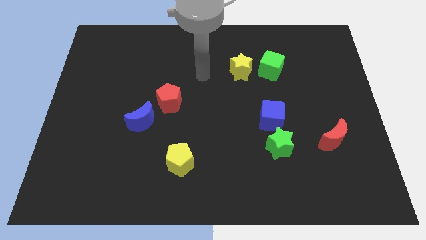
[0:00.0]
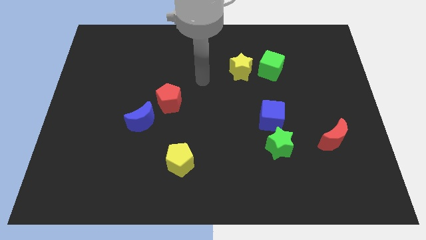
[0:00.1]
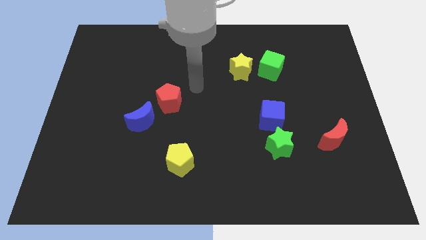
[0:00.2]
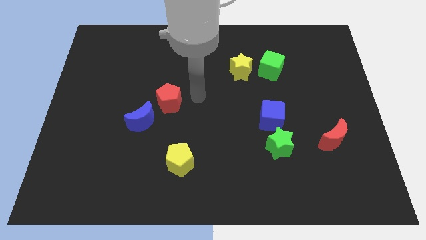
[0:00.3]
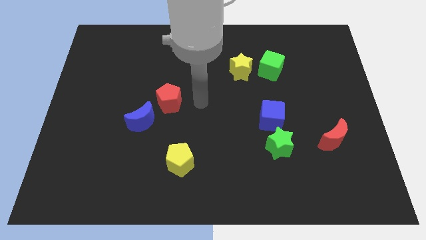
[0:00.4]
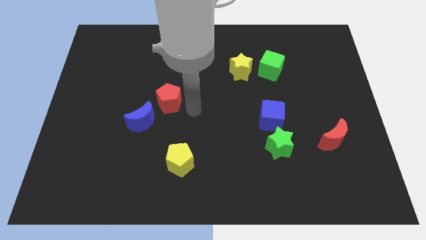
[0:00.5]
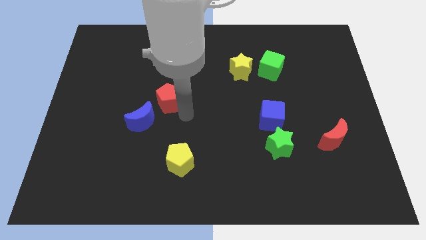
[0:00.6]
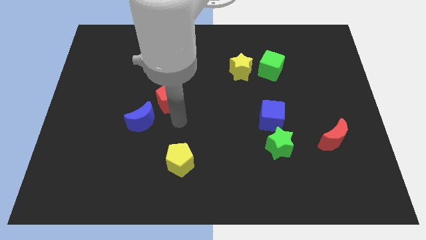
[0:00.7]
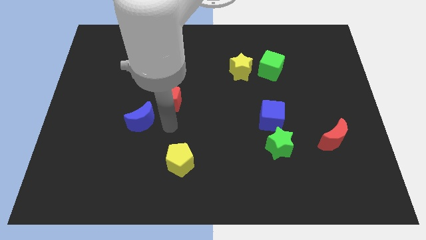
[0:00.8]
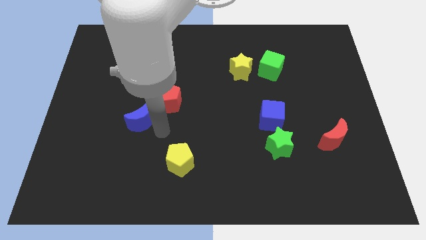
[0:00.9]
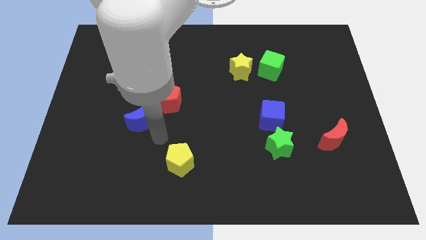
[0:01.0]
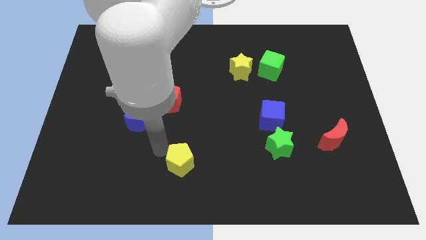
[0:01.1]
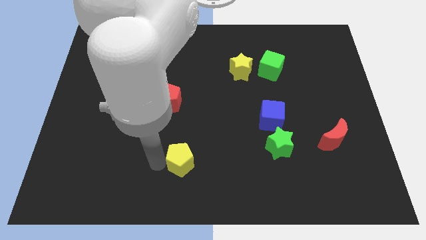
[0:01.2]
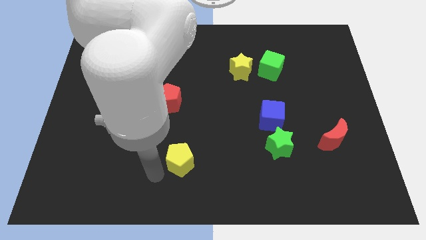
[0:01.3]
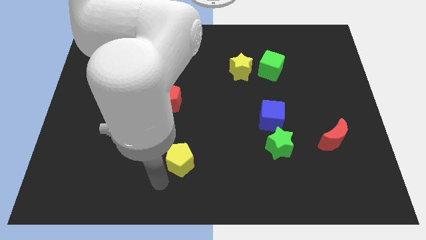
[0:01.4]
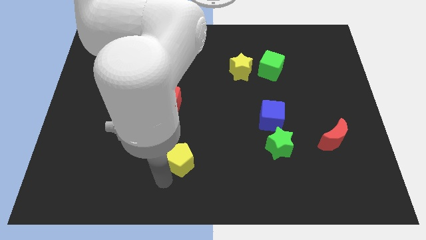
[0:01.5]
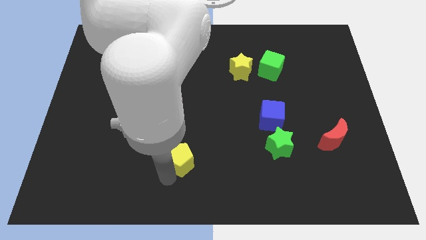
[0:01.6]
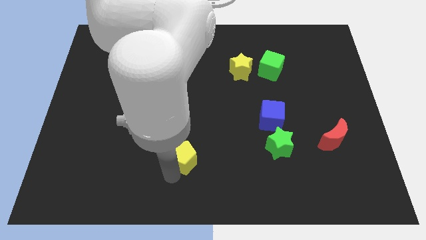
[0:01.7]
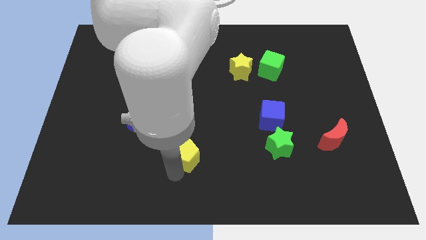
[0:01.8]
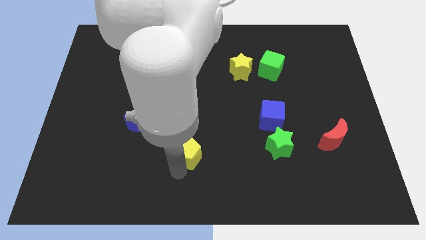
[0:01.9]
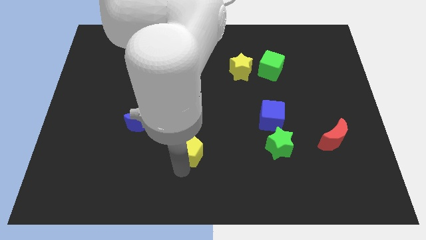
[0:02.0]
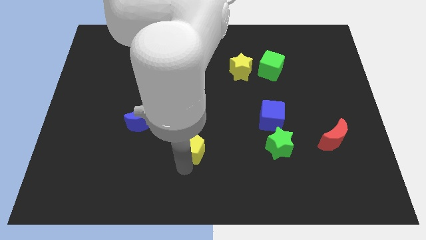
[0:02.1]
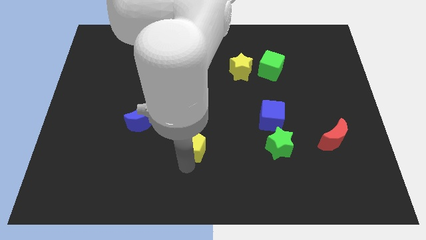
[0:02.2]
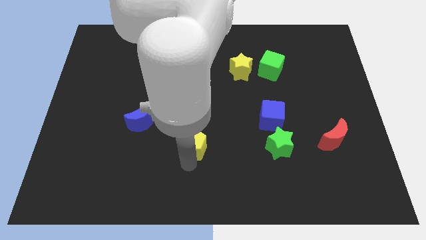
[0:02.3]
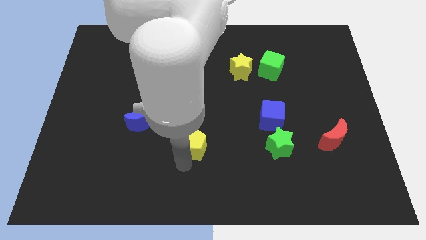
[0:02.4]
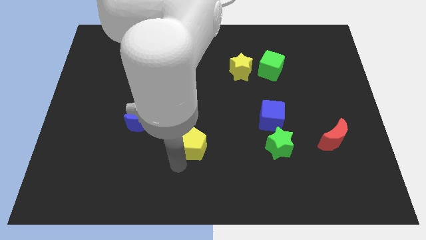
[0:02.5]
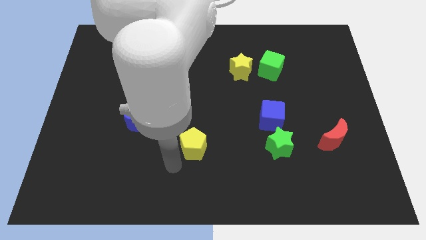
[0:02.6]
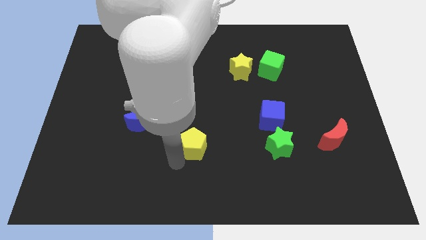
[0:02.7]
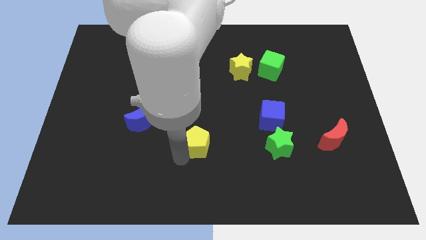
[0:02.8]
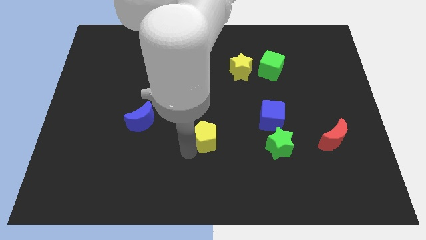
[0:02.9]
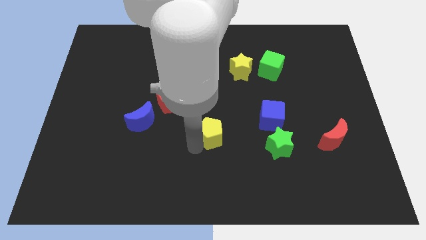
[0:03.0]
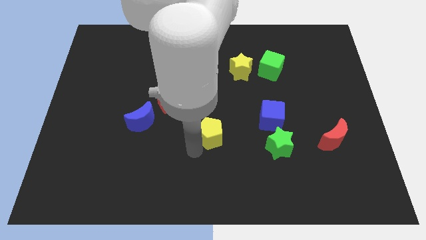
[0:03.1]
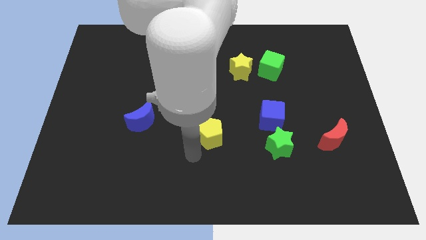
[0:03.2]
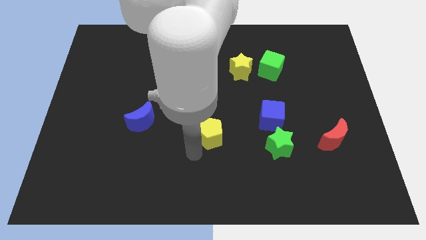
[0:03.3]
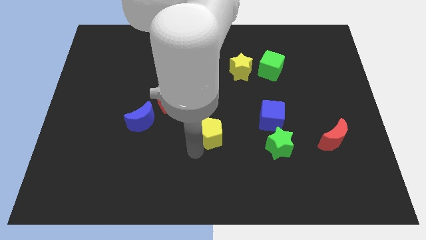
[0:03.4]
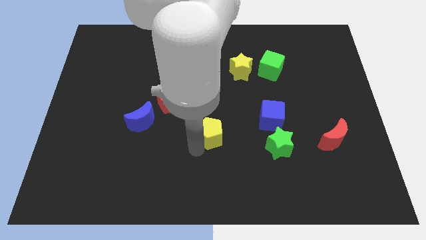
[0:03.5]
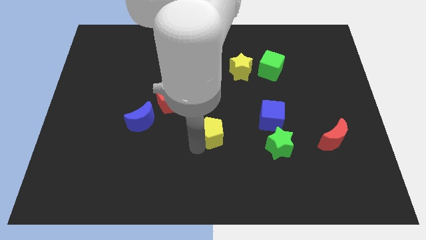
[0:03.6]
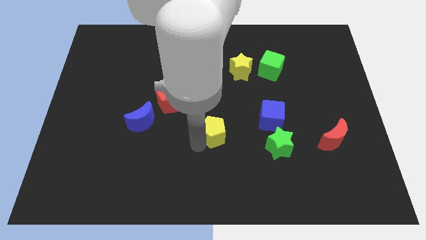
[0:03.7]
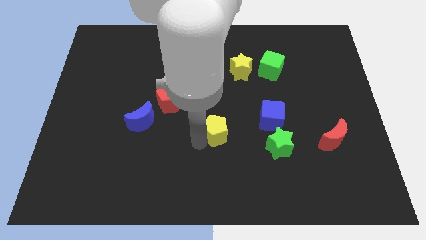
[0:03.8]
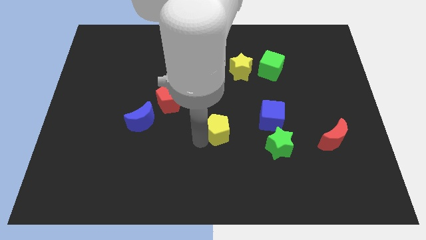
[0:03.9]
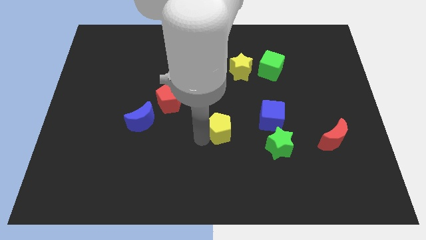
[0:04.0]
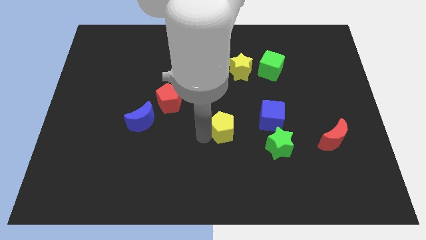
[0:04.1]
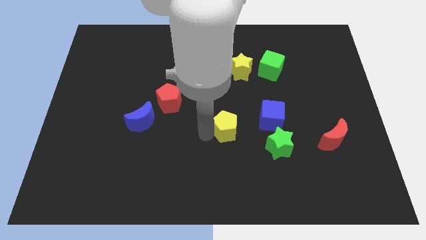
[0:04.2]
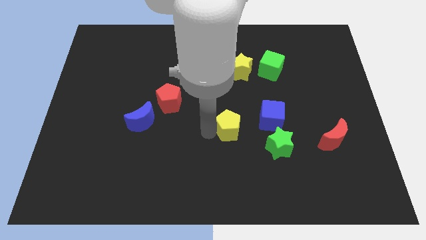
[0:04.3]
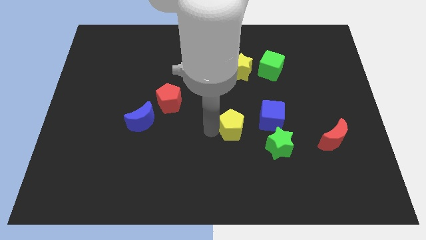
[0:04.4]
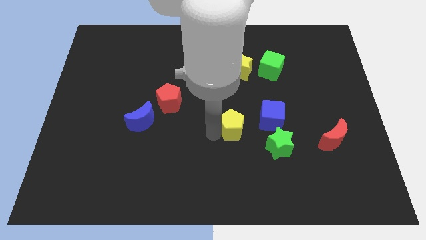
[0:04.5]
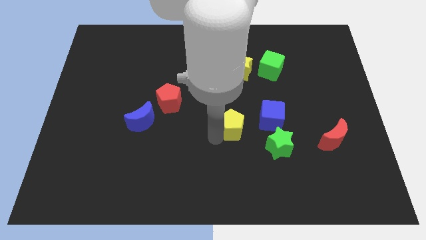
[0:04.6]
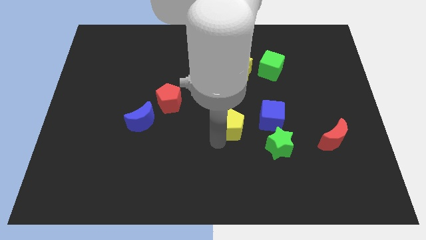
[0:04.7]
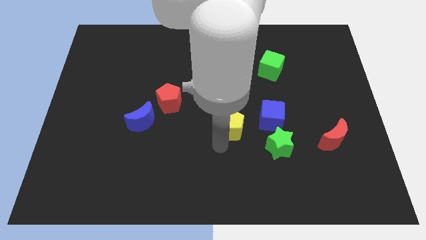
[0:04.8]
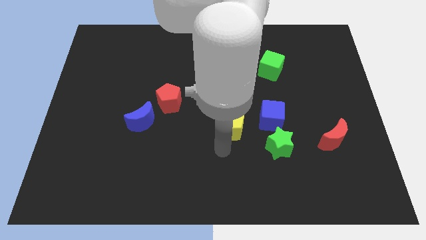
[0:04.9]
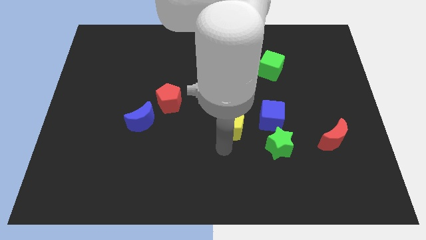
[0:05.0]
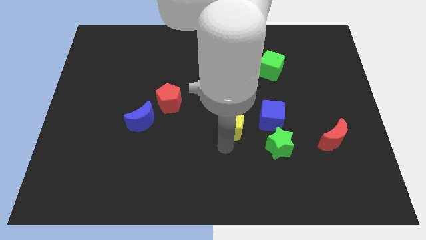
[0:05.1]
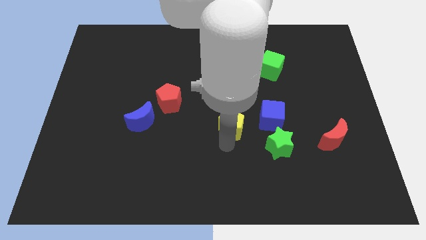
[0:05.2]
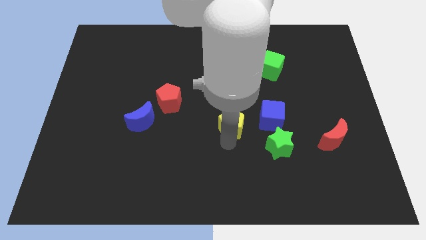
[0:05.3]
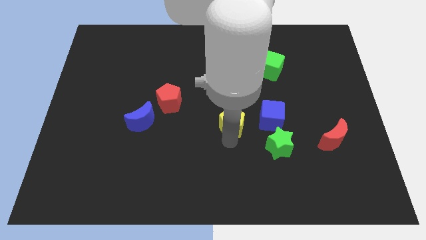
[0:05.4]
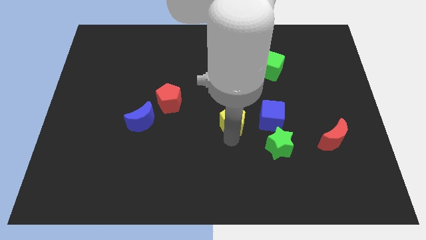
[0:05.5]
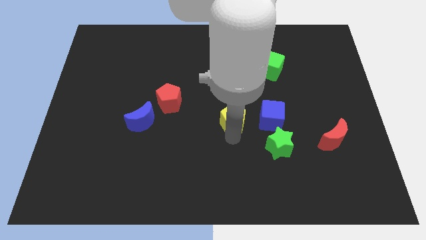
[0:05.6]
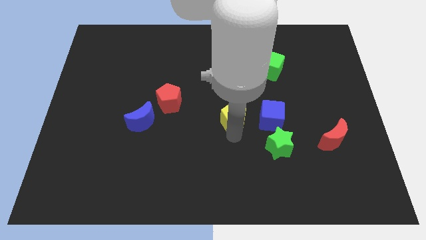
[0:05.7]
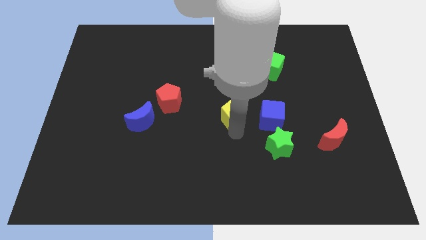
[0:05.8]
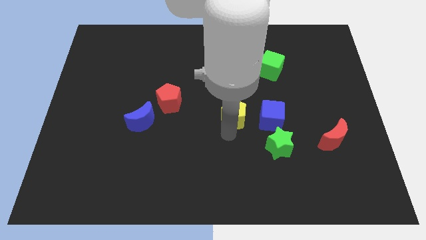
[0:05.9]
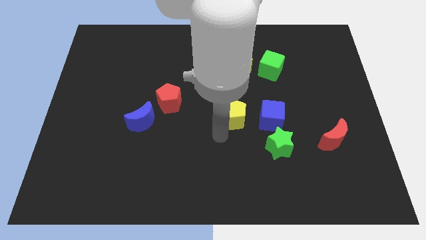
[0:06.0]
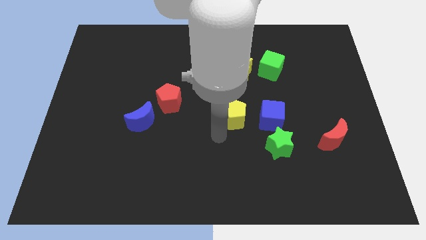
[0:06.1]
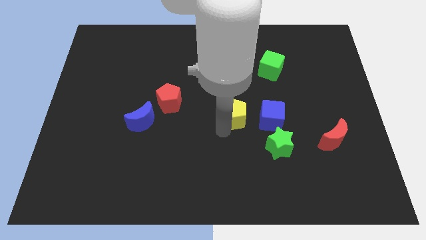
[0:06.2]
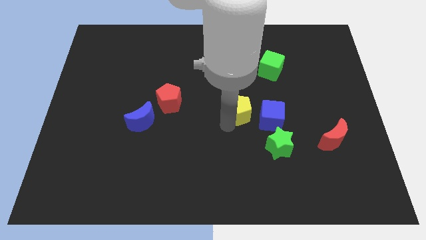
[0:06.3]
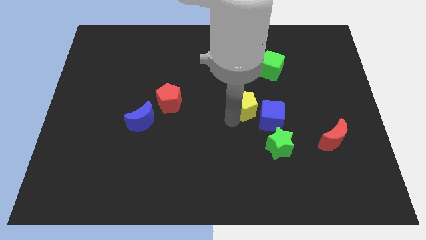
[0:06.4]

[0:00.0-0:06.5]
slide the yellow pentagon upwards and to the right

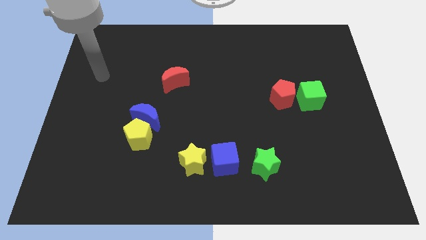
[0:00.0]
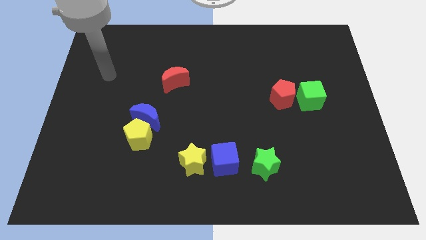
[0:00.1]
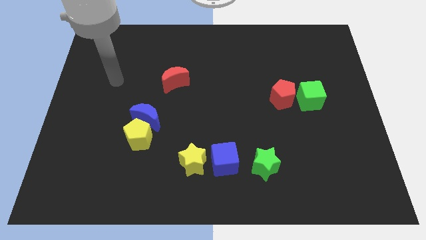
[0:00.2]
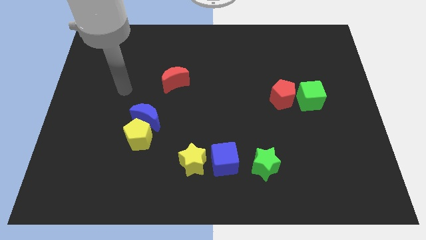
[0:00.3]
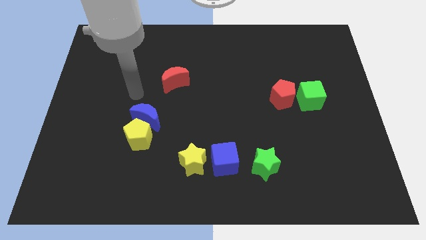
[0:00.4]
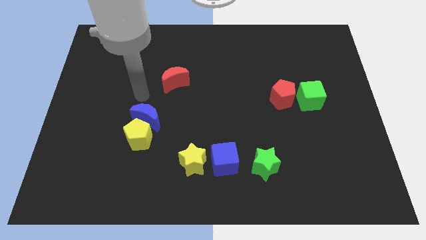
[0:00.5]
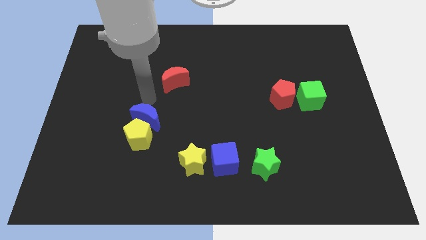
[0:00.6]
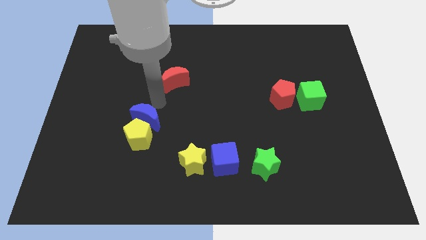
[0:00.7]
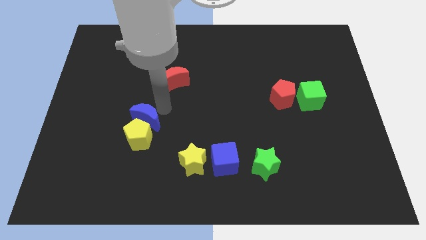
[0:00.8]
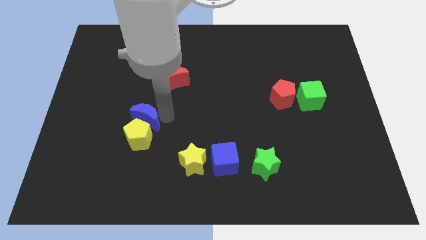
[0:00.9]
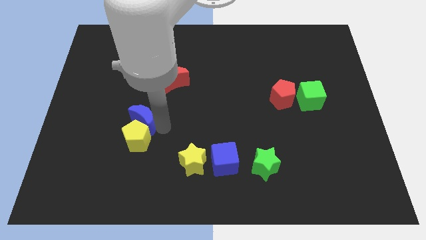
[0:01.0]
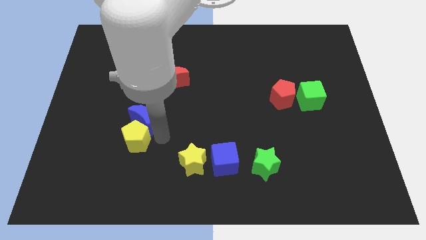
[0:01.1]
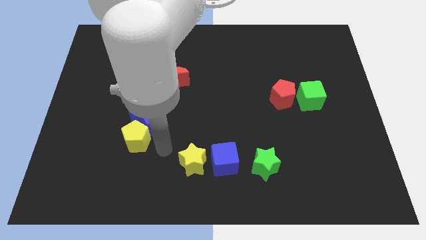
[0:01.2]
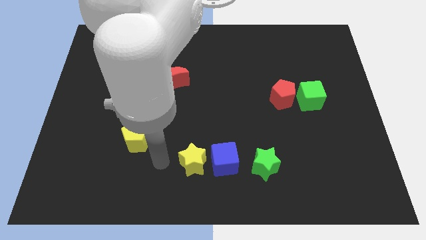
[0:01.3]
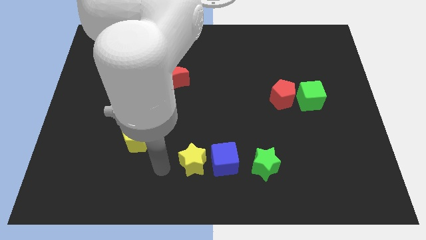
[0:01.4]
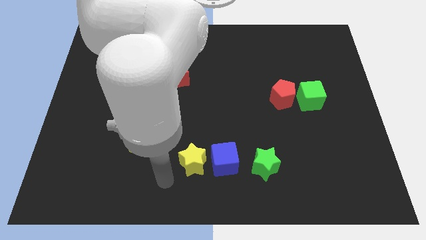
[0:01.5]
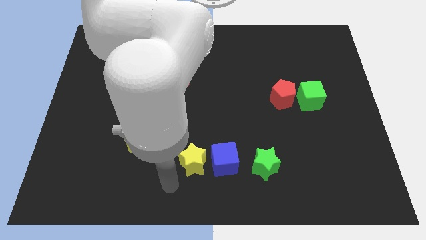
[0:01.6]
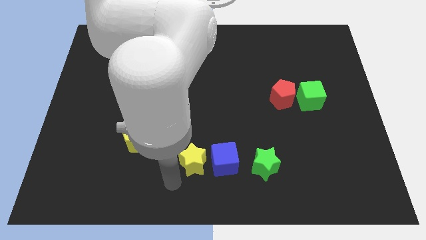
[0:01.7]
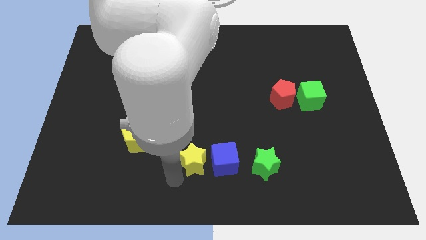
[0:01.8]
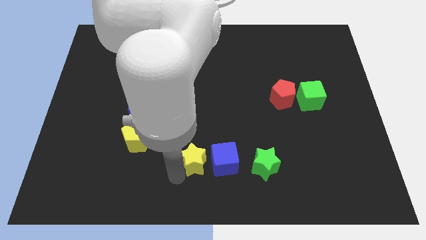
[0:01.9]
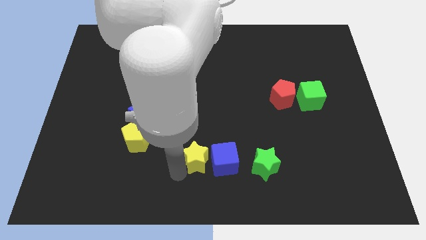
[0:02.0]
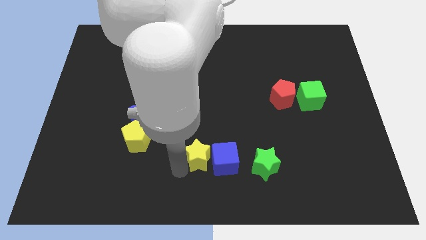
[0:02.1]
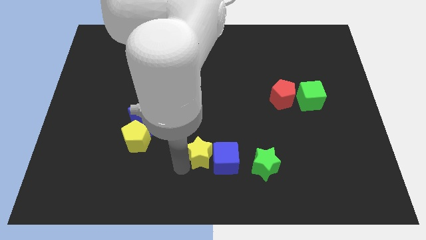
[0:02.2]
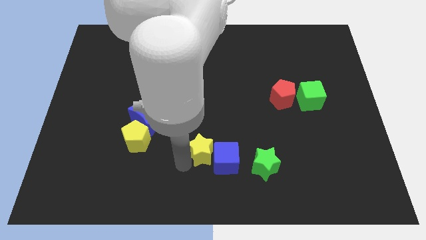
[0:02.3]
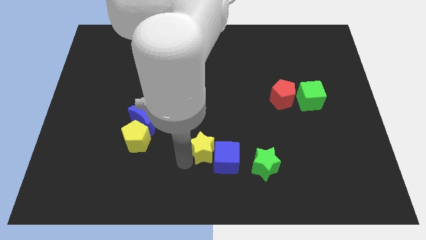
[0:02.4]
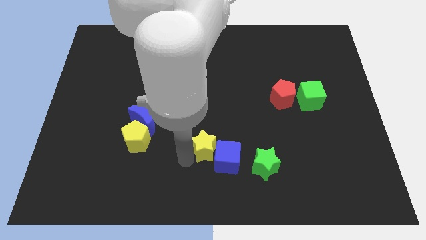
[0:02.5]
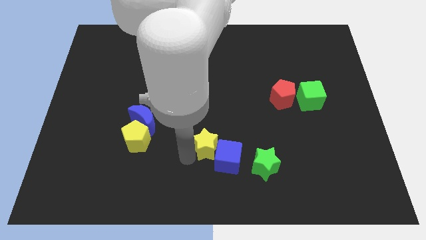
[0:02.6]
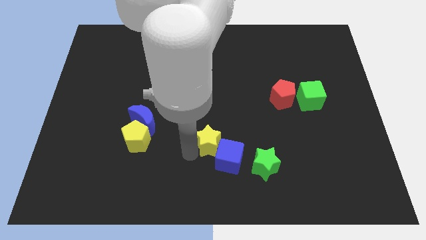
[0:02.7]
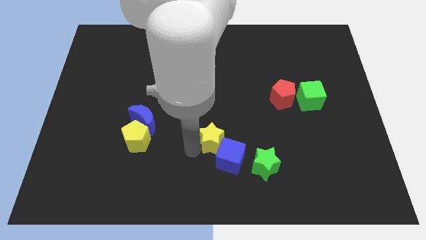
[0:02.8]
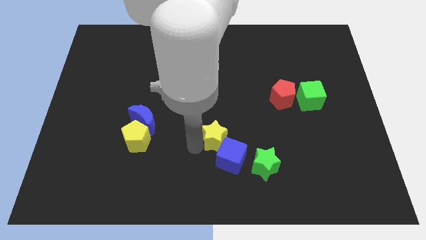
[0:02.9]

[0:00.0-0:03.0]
slide the yellow star up and right diagonally somewhat
